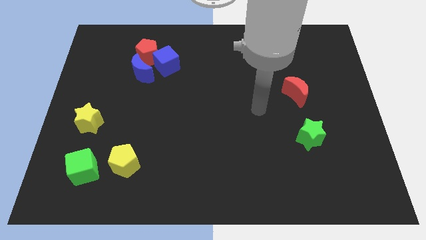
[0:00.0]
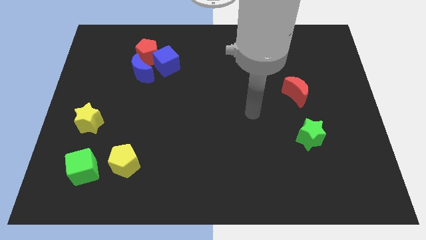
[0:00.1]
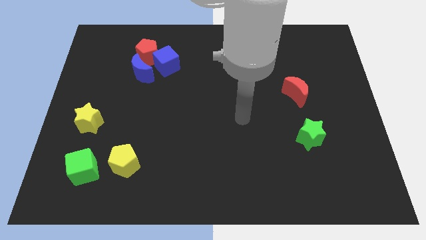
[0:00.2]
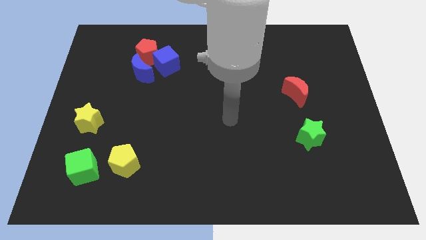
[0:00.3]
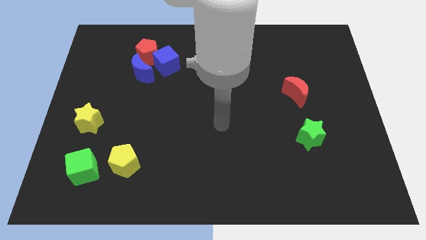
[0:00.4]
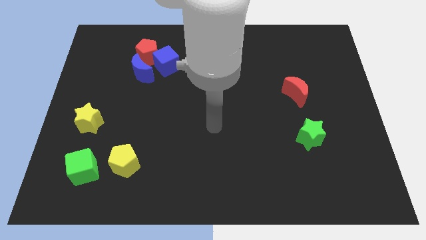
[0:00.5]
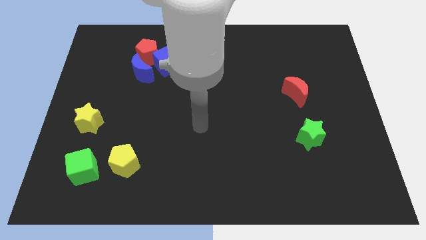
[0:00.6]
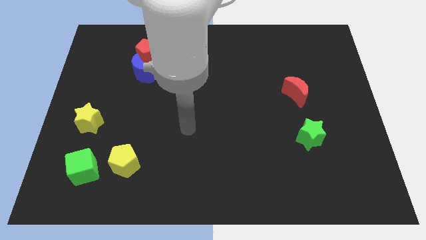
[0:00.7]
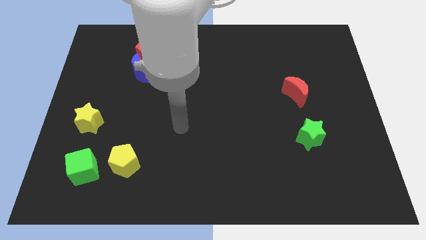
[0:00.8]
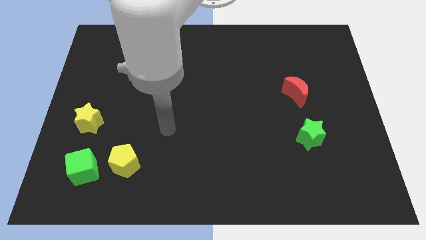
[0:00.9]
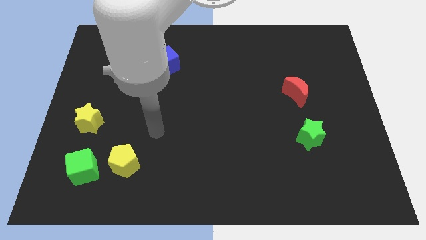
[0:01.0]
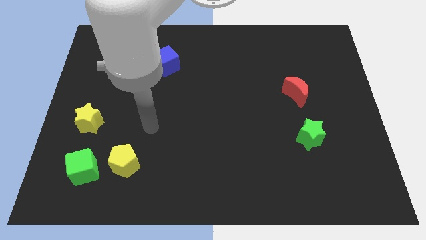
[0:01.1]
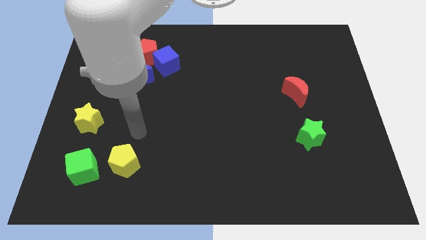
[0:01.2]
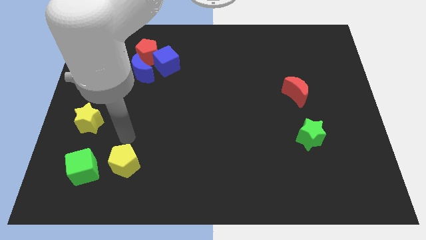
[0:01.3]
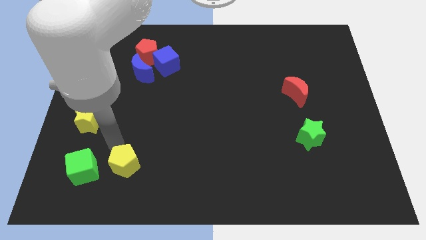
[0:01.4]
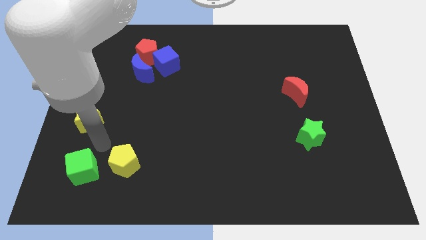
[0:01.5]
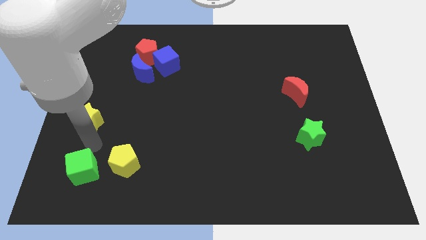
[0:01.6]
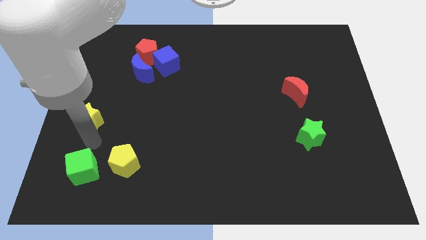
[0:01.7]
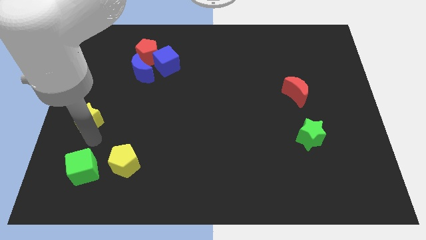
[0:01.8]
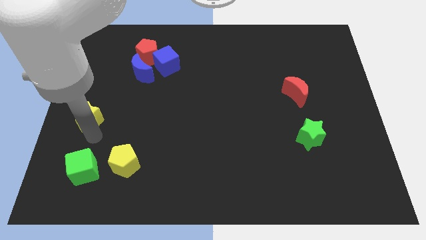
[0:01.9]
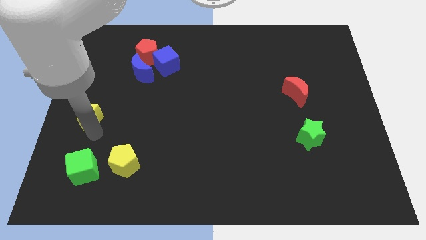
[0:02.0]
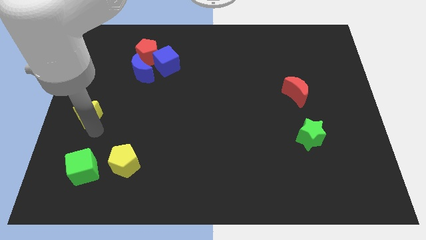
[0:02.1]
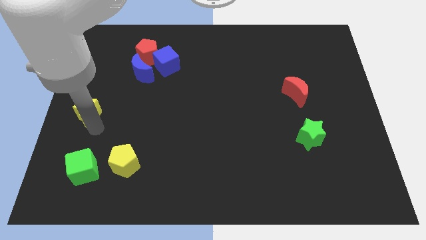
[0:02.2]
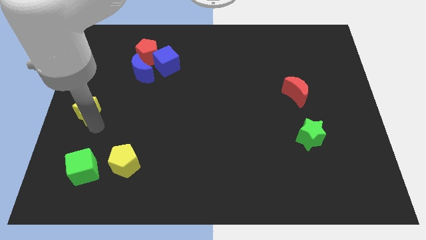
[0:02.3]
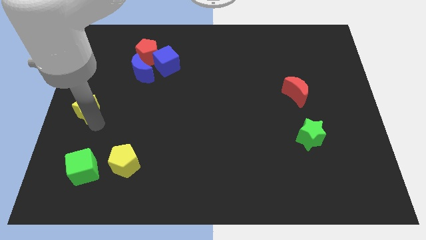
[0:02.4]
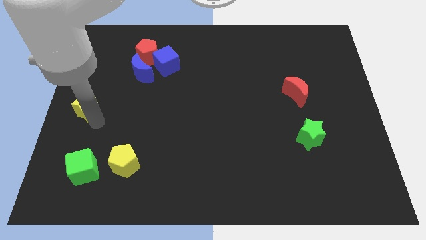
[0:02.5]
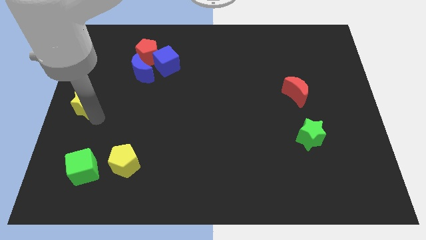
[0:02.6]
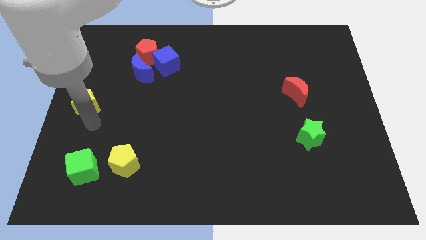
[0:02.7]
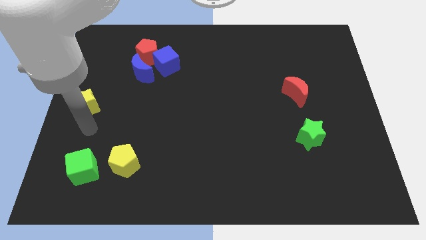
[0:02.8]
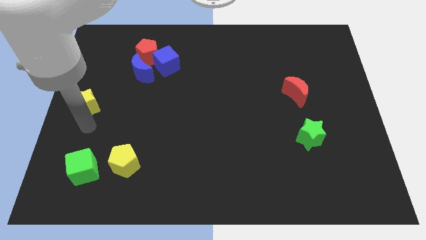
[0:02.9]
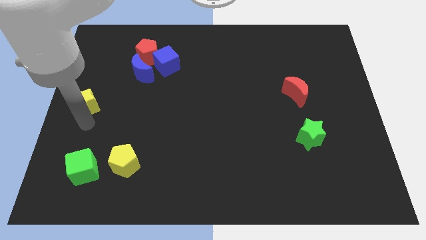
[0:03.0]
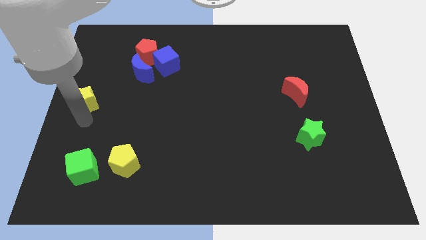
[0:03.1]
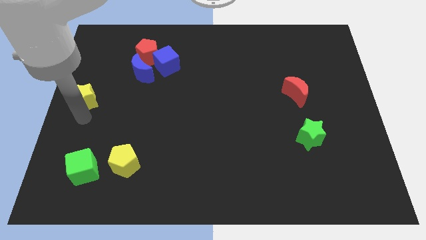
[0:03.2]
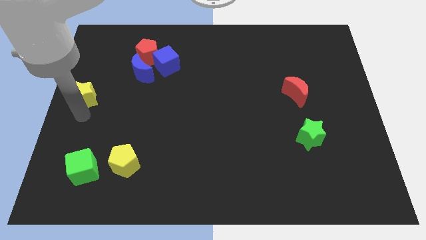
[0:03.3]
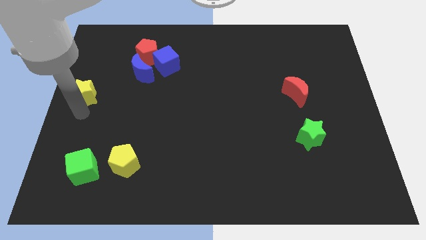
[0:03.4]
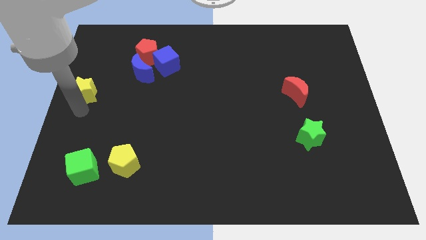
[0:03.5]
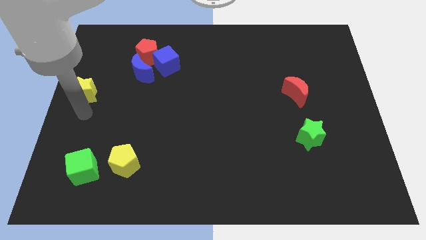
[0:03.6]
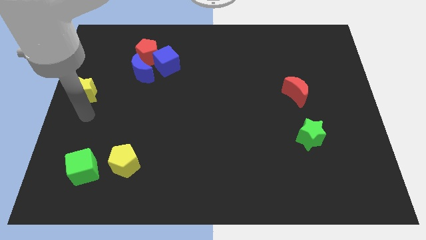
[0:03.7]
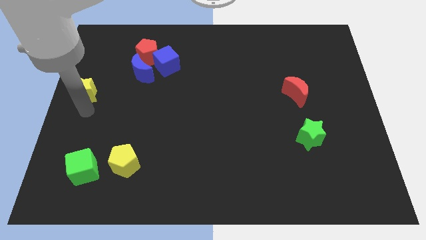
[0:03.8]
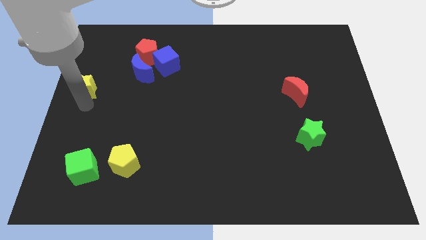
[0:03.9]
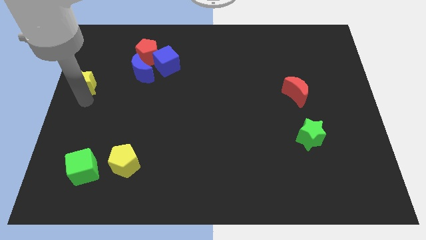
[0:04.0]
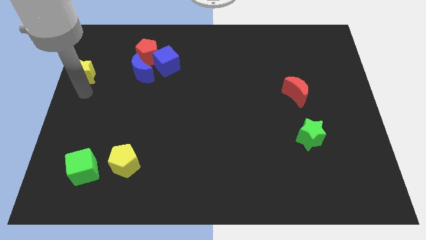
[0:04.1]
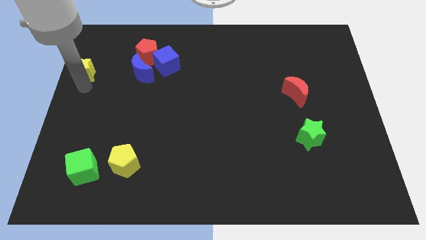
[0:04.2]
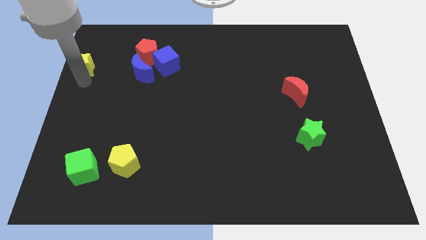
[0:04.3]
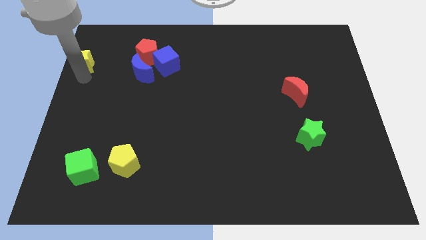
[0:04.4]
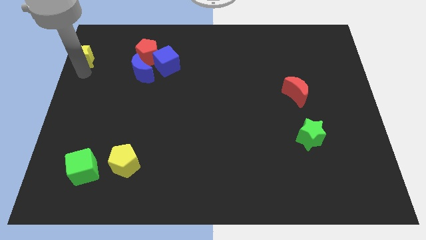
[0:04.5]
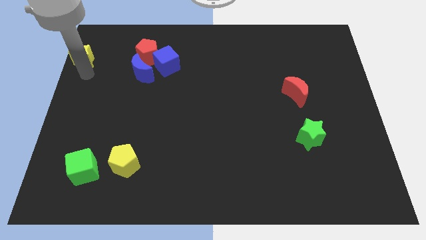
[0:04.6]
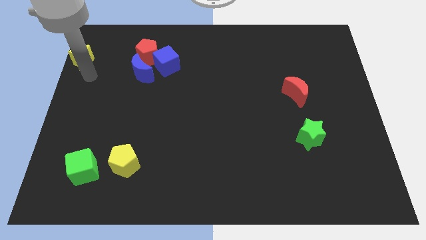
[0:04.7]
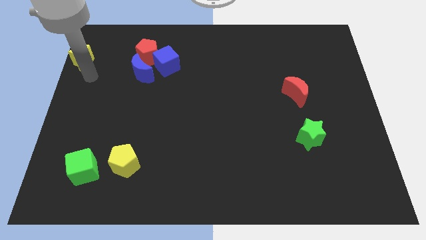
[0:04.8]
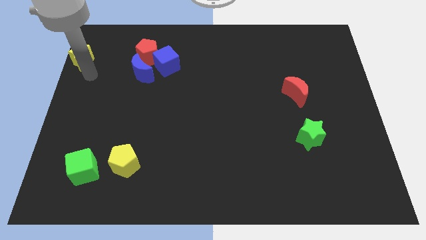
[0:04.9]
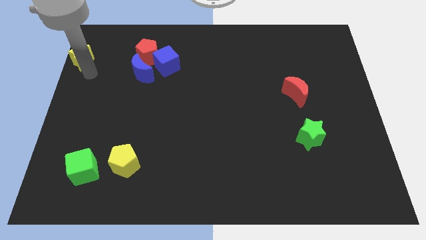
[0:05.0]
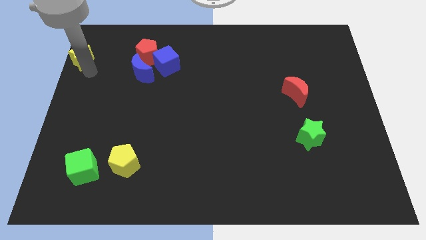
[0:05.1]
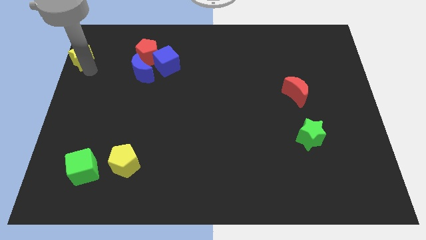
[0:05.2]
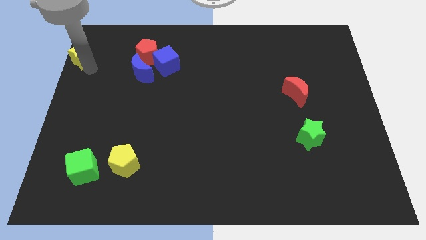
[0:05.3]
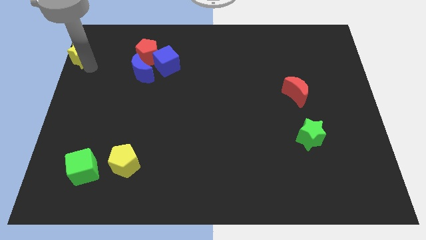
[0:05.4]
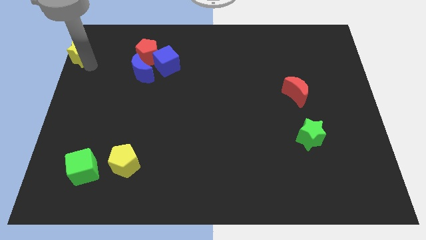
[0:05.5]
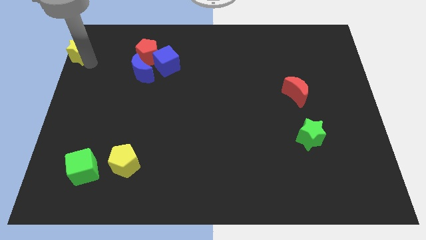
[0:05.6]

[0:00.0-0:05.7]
move the yellow star to the top left

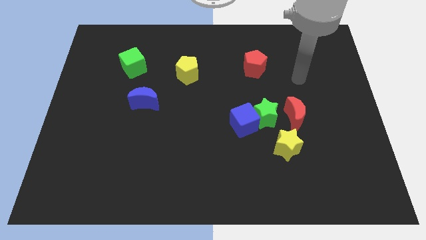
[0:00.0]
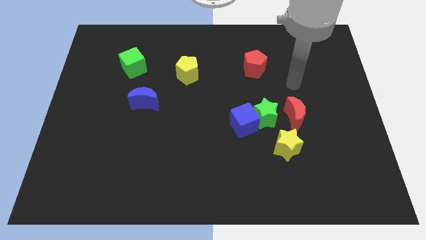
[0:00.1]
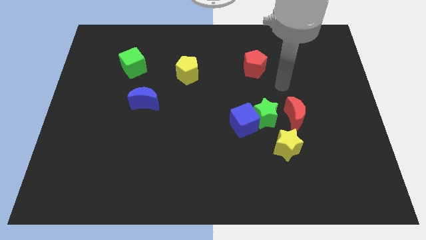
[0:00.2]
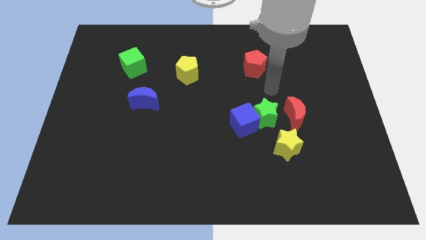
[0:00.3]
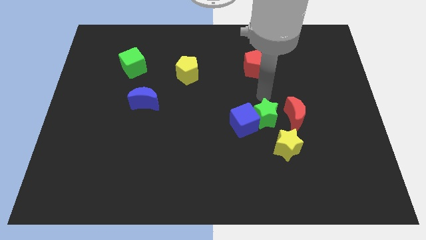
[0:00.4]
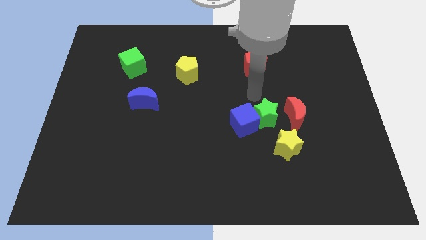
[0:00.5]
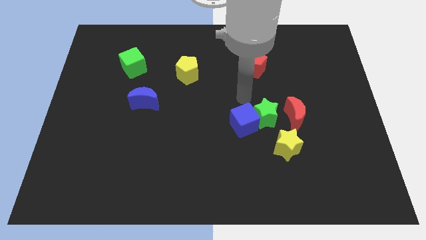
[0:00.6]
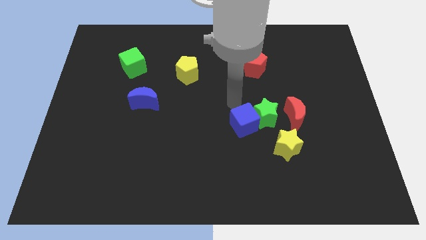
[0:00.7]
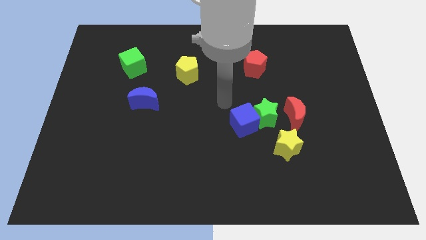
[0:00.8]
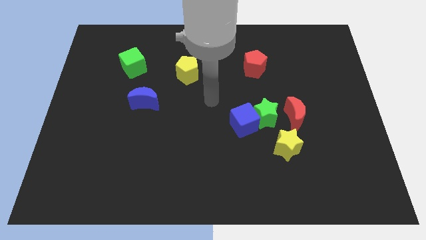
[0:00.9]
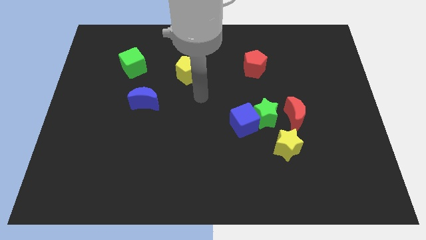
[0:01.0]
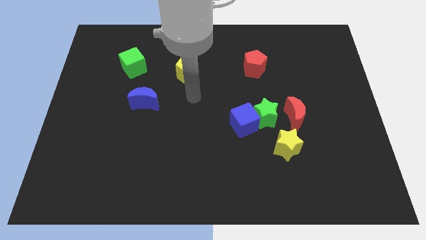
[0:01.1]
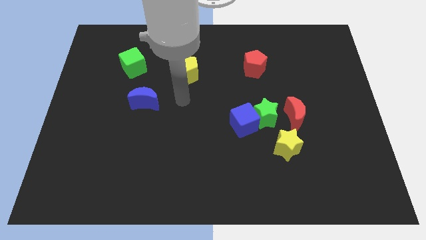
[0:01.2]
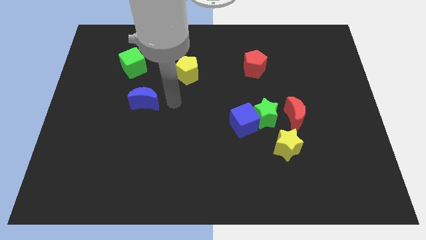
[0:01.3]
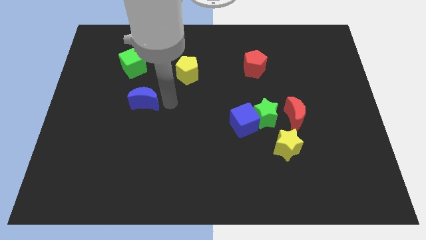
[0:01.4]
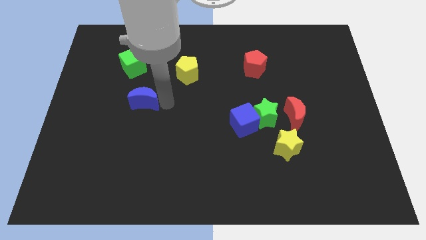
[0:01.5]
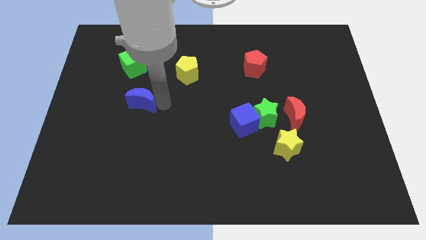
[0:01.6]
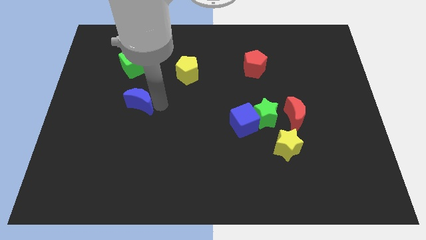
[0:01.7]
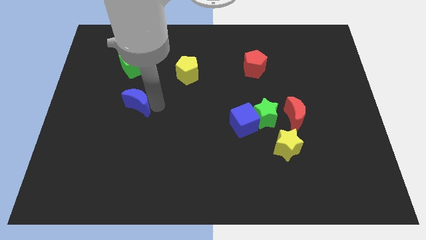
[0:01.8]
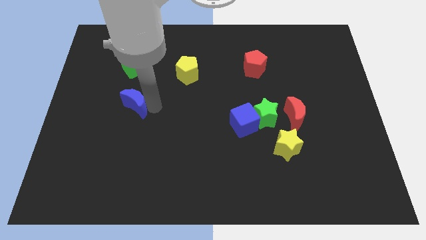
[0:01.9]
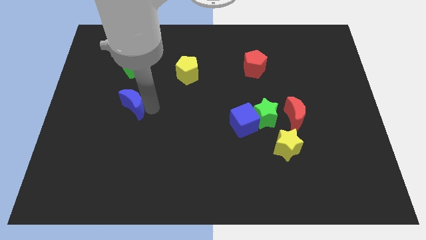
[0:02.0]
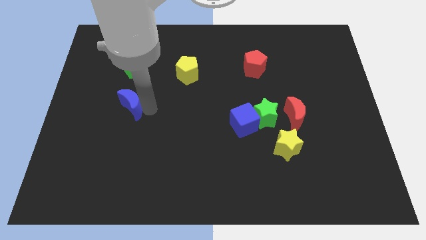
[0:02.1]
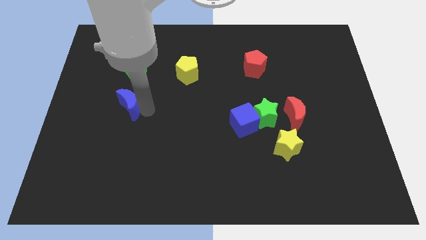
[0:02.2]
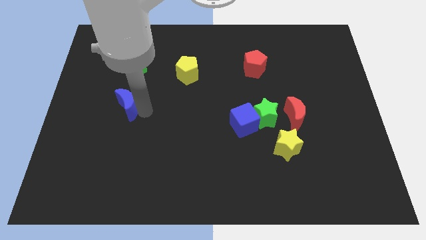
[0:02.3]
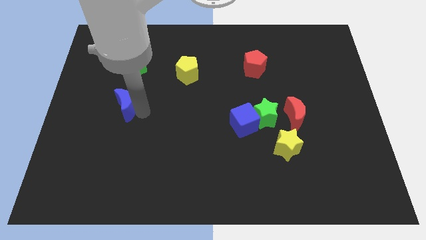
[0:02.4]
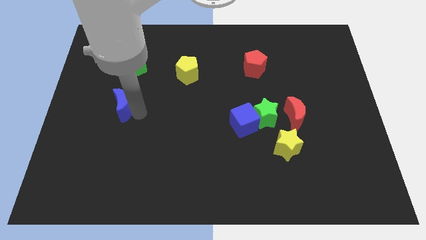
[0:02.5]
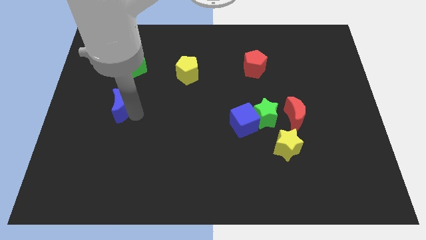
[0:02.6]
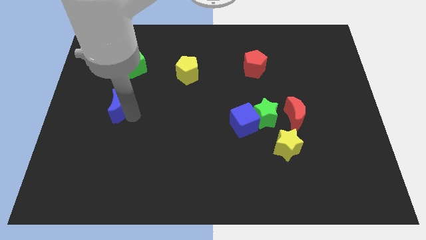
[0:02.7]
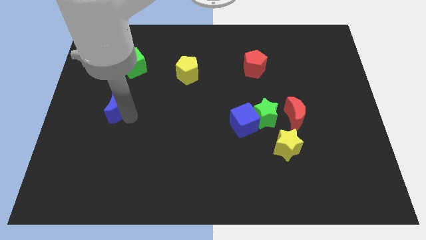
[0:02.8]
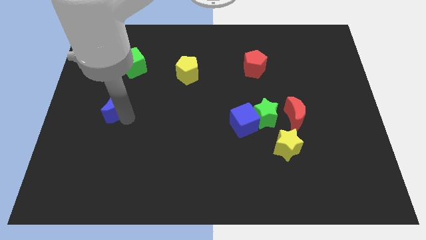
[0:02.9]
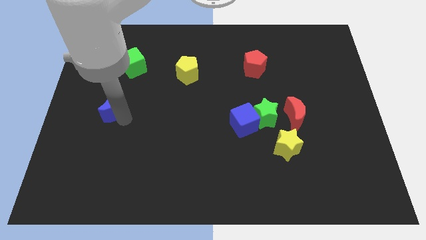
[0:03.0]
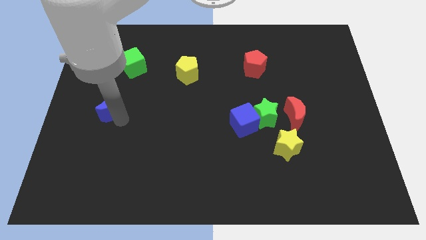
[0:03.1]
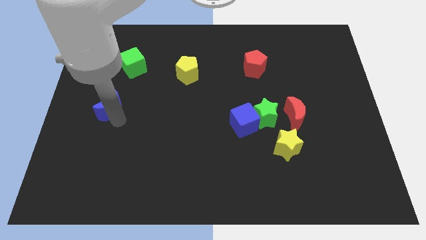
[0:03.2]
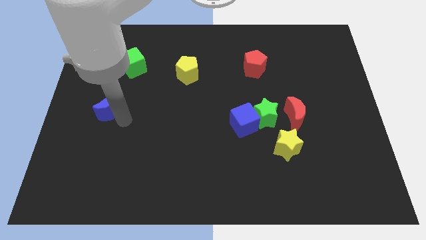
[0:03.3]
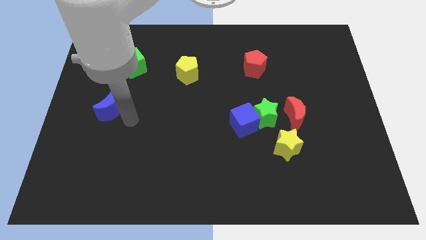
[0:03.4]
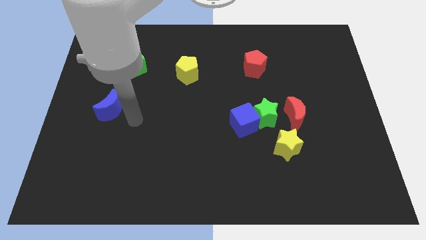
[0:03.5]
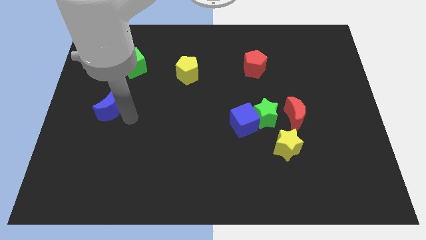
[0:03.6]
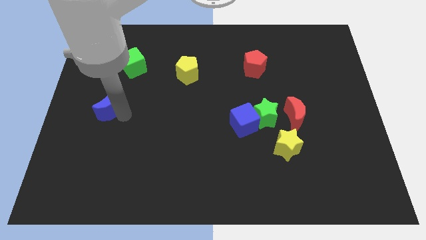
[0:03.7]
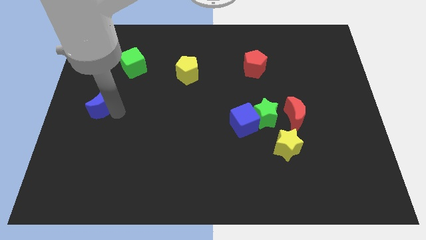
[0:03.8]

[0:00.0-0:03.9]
slide the blue moon to the center left
